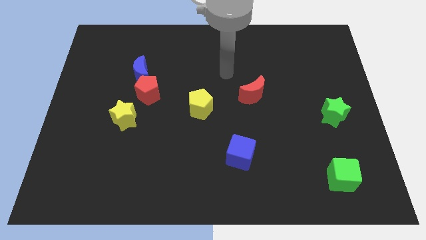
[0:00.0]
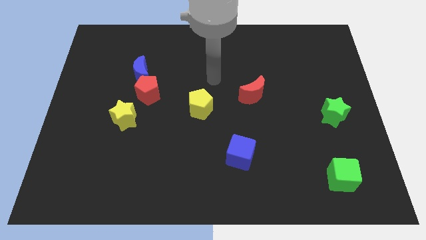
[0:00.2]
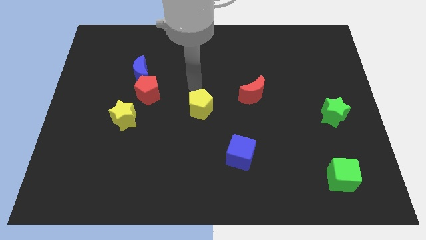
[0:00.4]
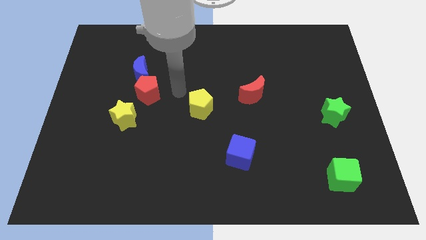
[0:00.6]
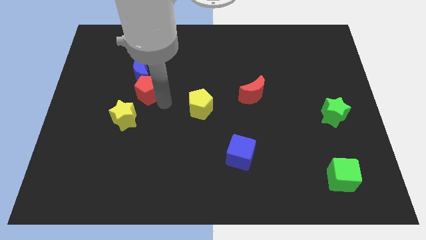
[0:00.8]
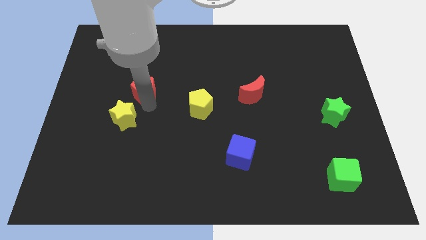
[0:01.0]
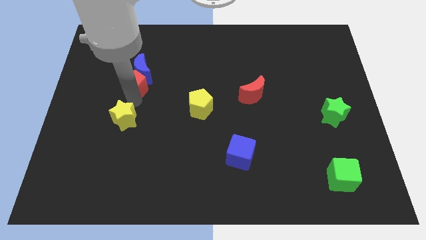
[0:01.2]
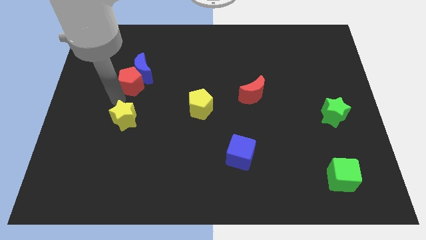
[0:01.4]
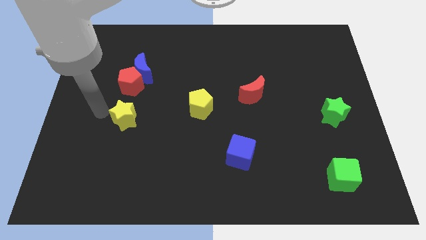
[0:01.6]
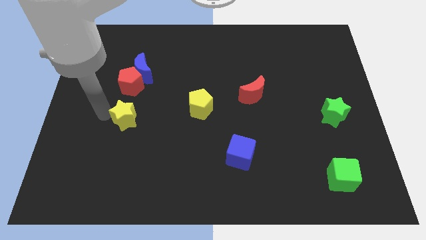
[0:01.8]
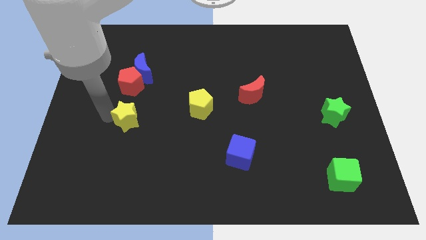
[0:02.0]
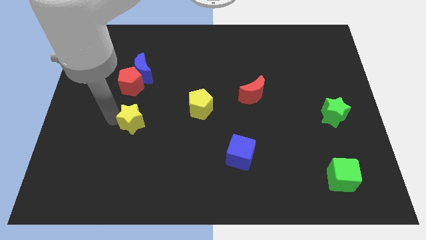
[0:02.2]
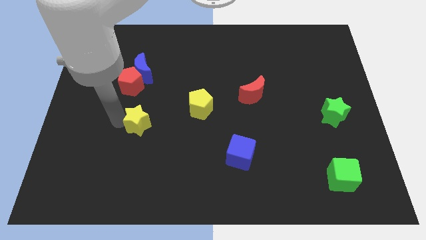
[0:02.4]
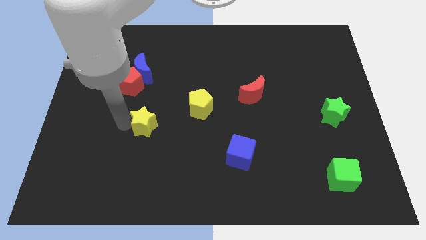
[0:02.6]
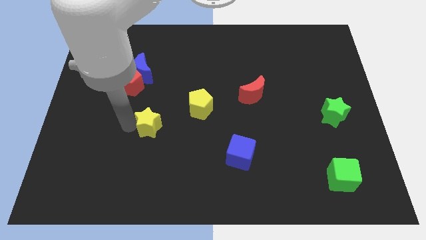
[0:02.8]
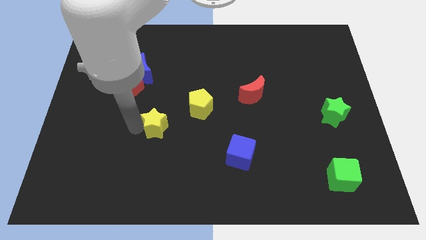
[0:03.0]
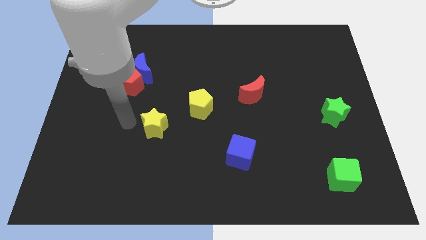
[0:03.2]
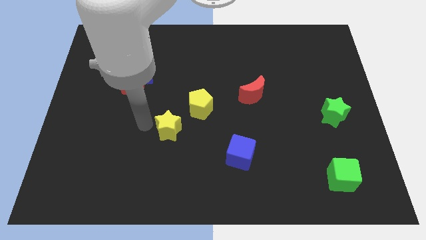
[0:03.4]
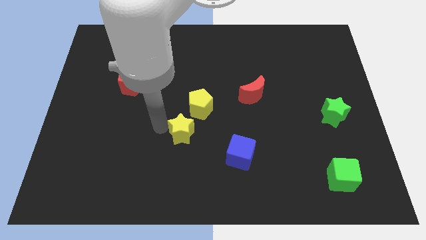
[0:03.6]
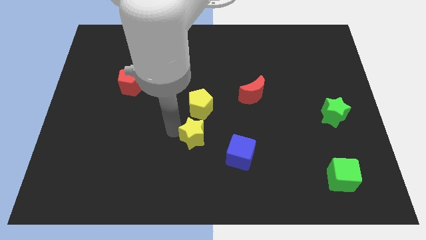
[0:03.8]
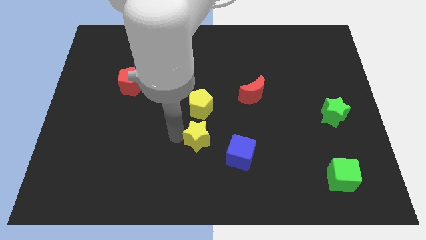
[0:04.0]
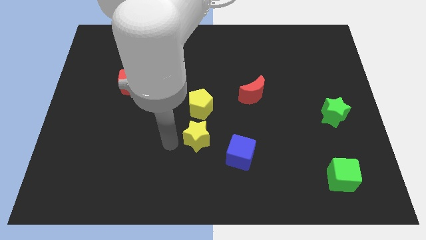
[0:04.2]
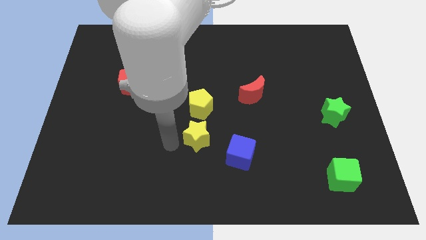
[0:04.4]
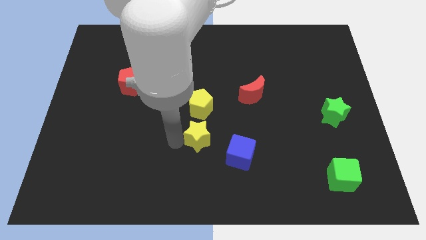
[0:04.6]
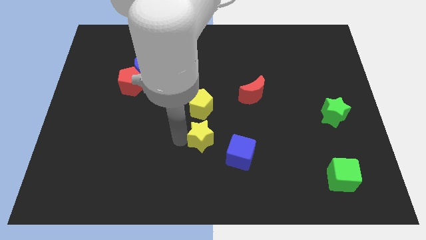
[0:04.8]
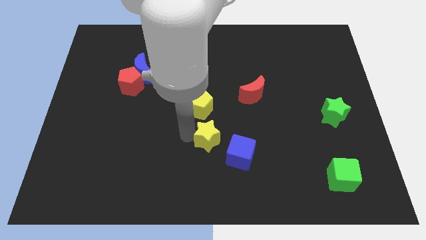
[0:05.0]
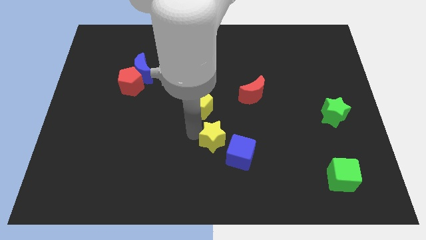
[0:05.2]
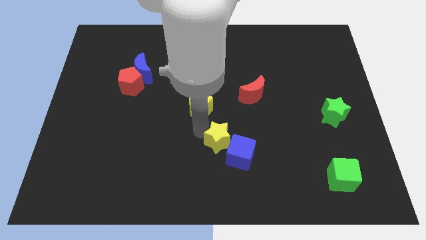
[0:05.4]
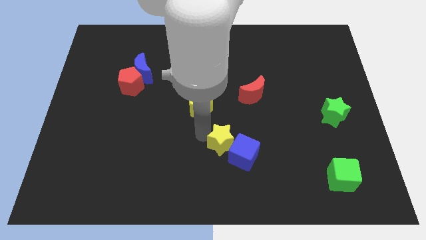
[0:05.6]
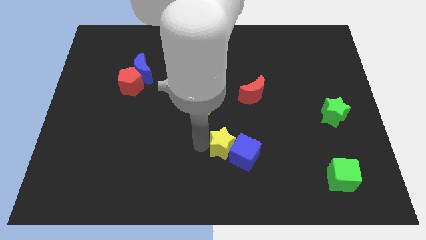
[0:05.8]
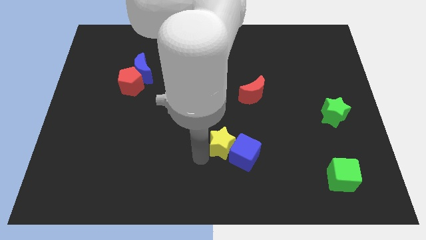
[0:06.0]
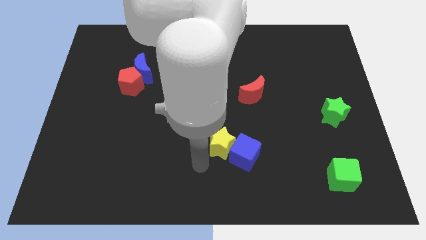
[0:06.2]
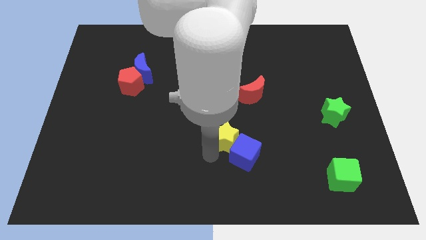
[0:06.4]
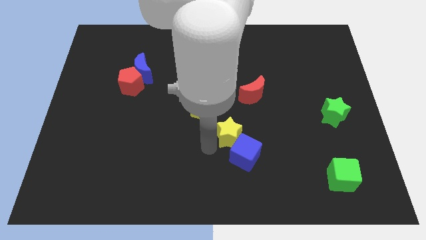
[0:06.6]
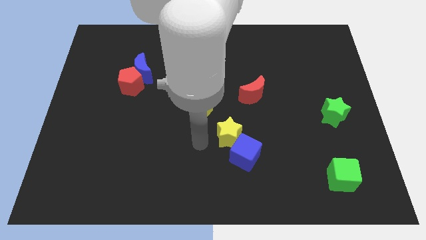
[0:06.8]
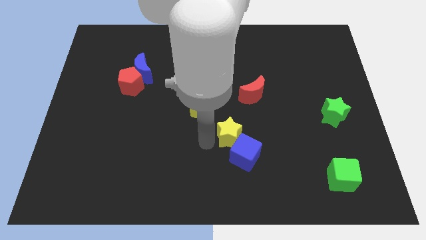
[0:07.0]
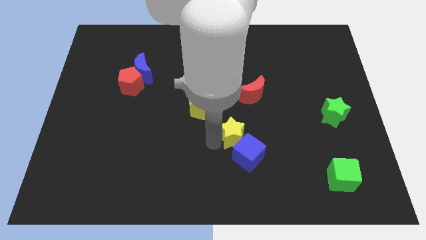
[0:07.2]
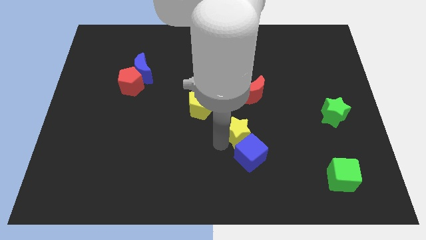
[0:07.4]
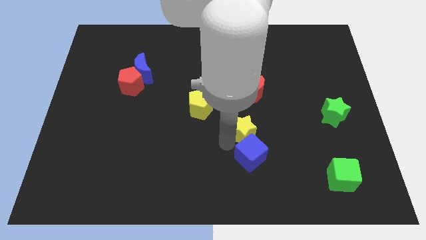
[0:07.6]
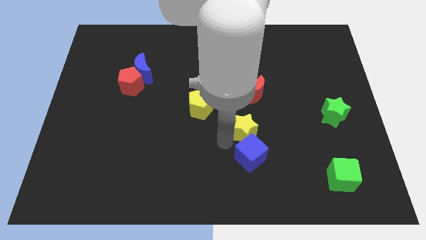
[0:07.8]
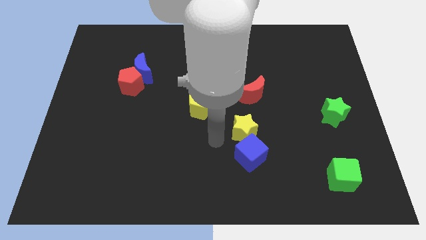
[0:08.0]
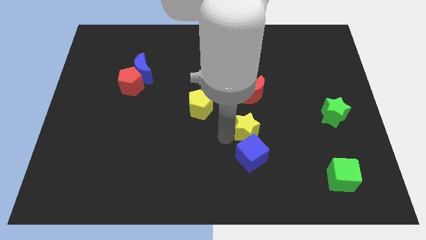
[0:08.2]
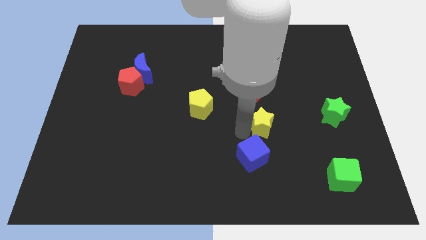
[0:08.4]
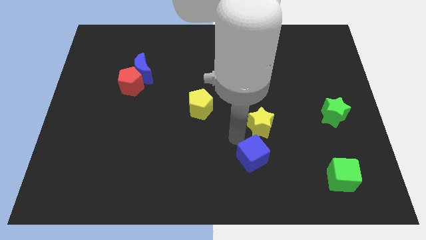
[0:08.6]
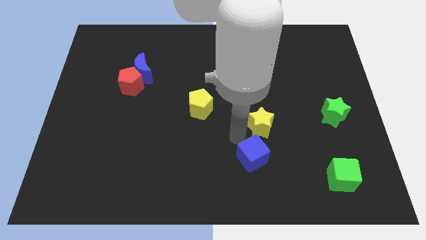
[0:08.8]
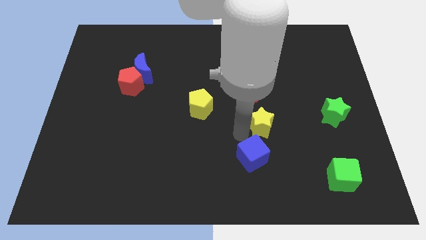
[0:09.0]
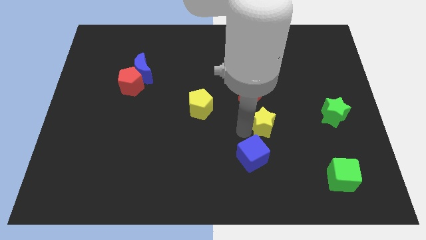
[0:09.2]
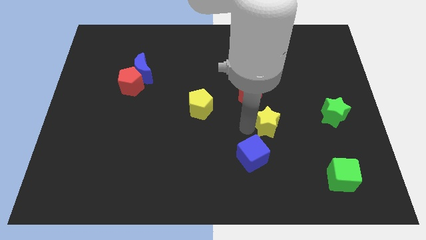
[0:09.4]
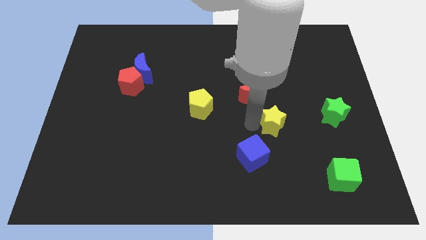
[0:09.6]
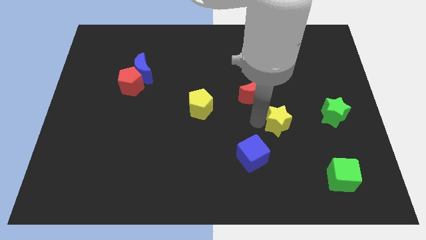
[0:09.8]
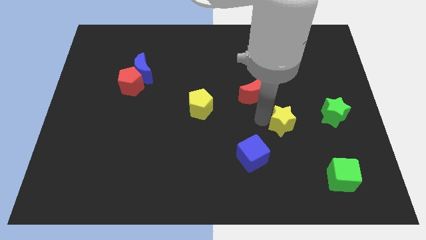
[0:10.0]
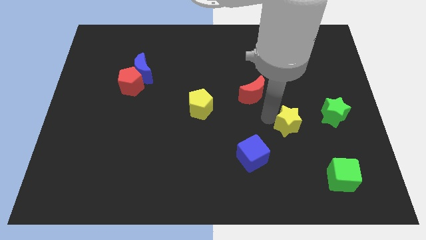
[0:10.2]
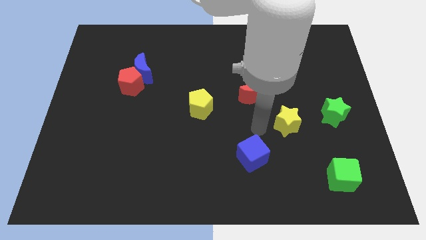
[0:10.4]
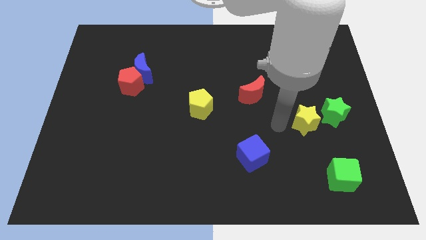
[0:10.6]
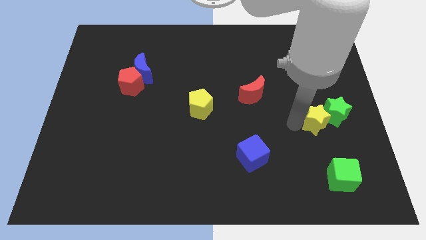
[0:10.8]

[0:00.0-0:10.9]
put the yellow star next to the green star

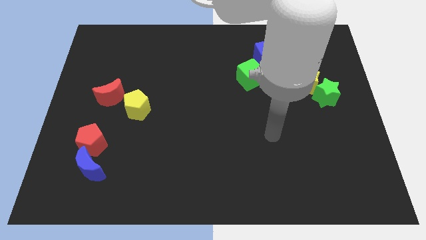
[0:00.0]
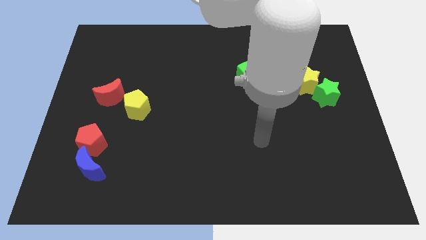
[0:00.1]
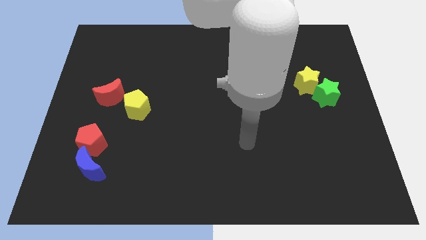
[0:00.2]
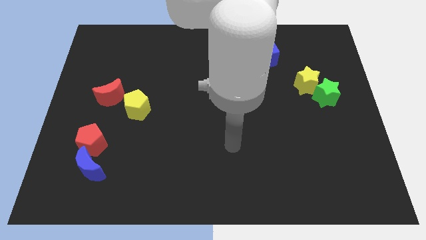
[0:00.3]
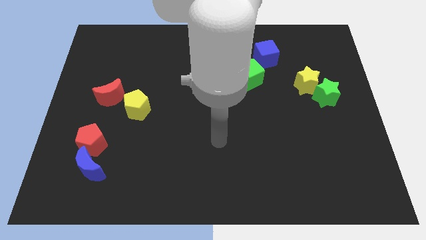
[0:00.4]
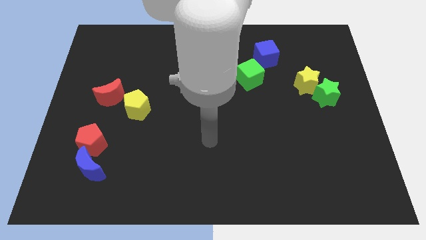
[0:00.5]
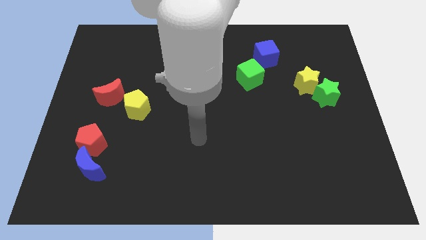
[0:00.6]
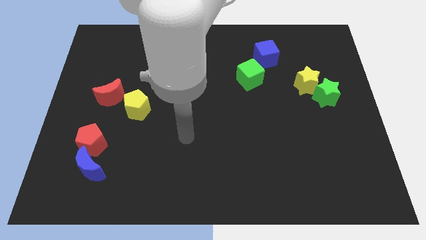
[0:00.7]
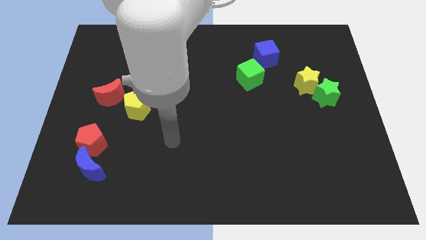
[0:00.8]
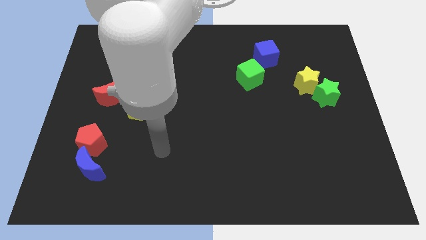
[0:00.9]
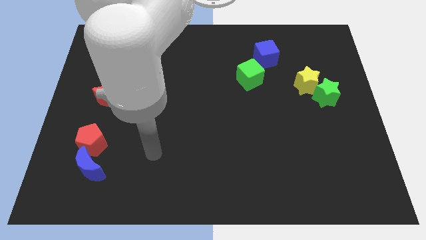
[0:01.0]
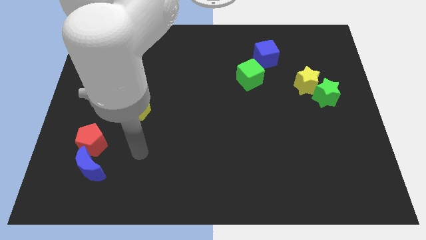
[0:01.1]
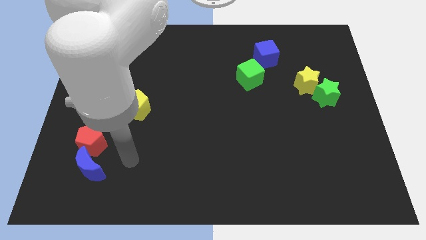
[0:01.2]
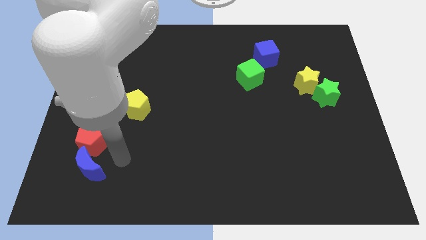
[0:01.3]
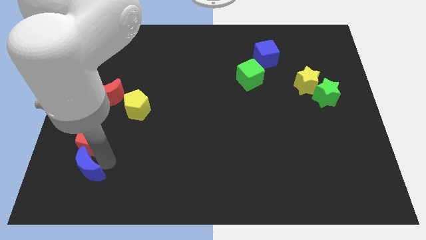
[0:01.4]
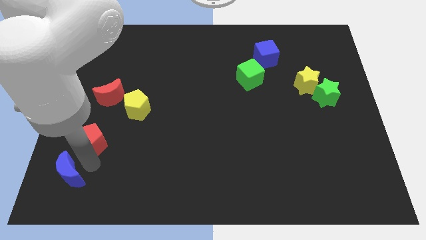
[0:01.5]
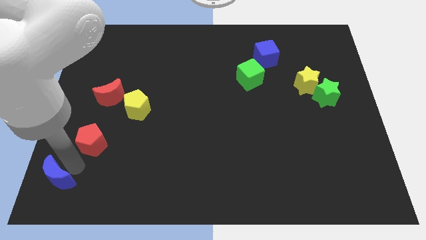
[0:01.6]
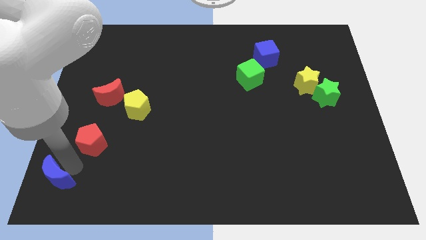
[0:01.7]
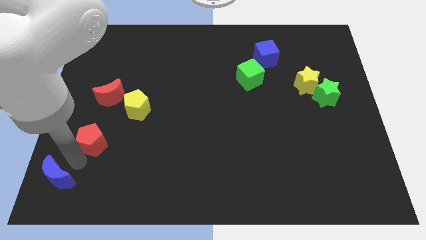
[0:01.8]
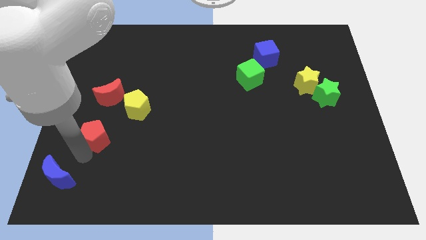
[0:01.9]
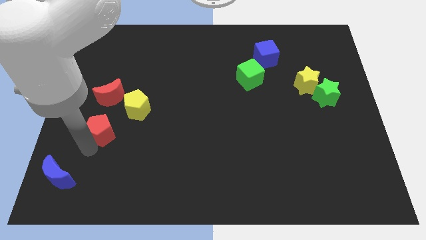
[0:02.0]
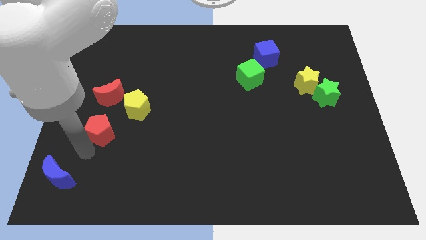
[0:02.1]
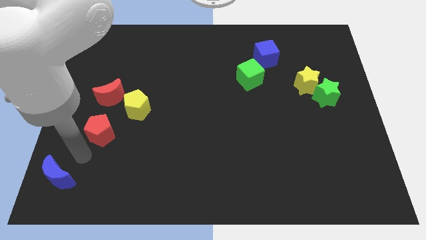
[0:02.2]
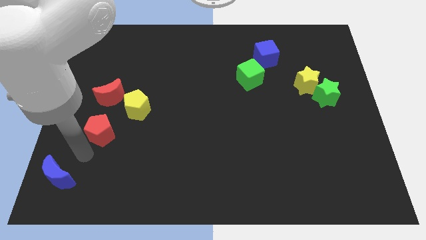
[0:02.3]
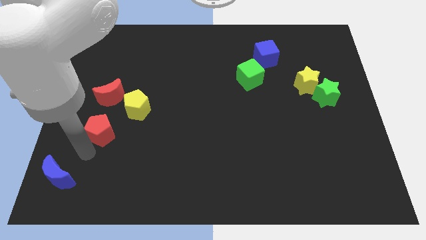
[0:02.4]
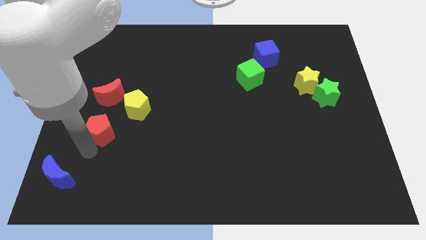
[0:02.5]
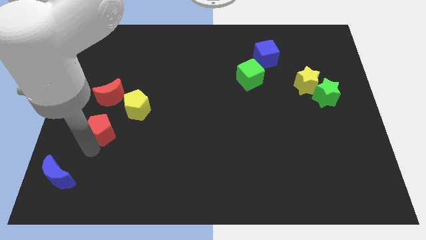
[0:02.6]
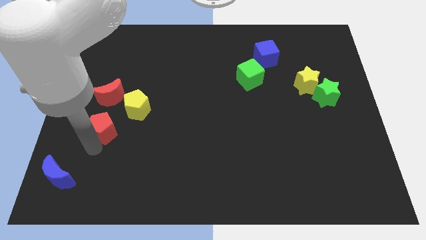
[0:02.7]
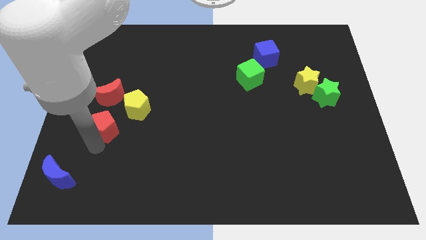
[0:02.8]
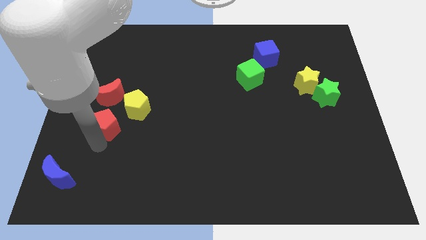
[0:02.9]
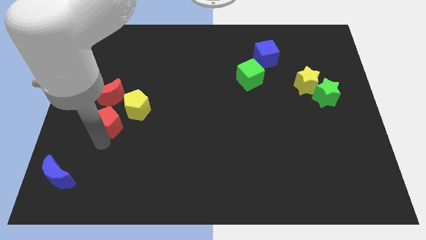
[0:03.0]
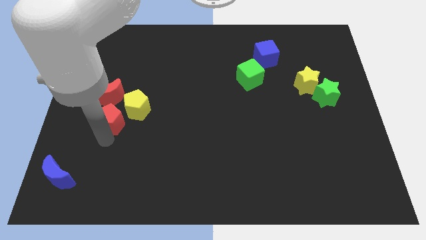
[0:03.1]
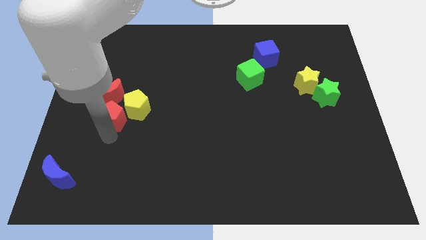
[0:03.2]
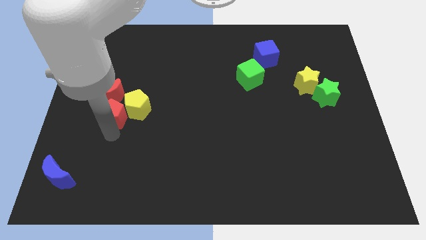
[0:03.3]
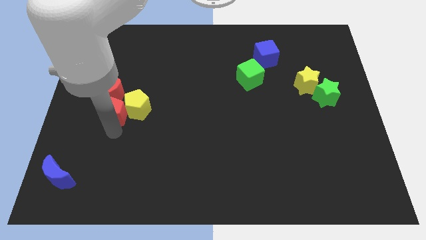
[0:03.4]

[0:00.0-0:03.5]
slide the red pentagon to the red moon
